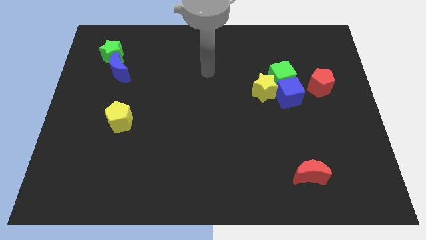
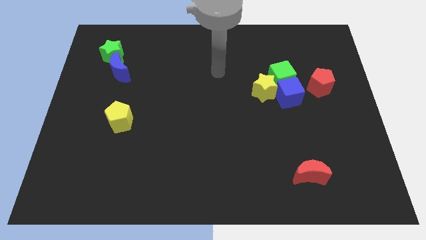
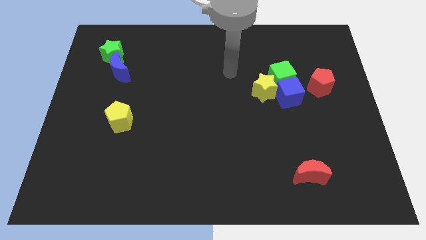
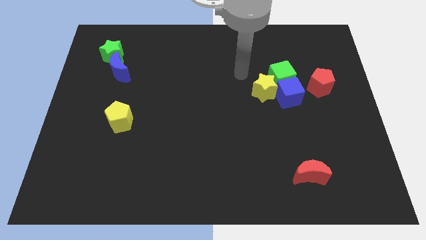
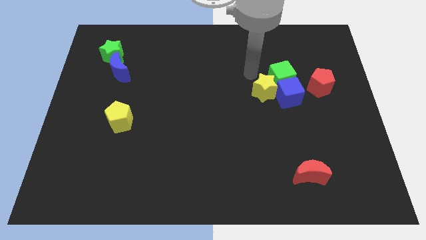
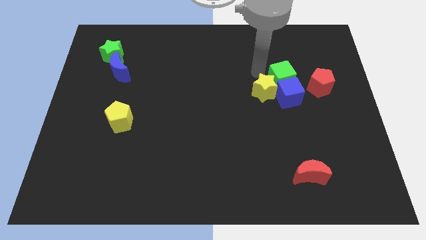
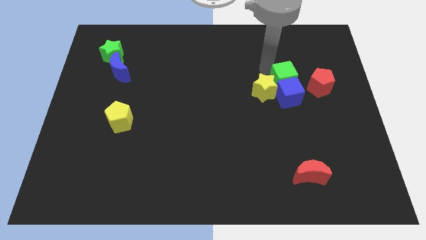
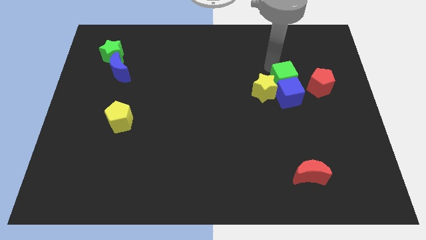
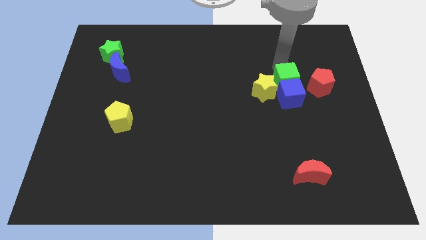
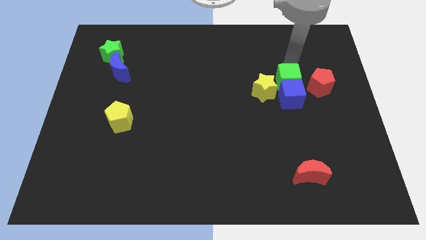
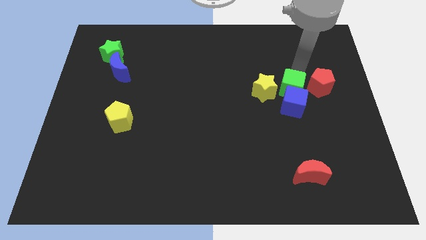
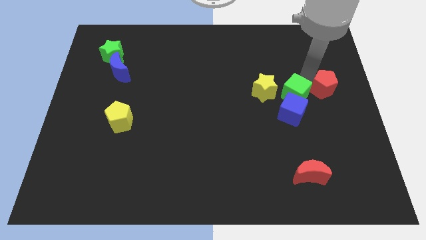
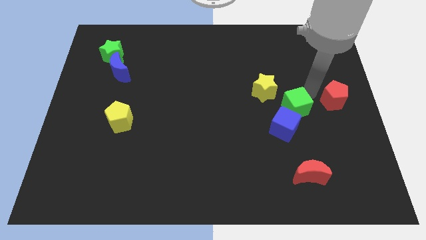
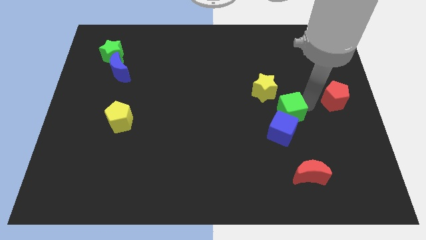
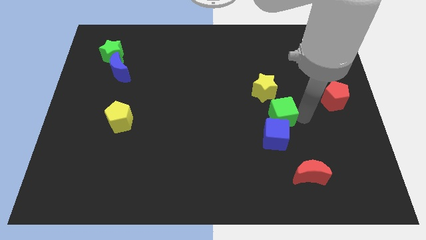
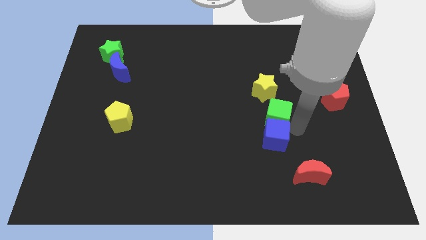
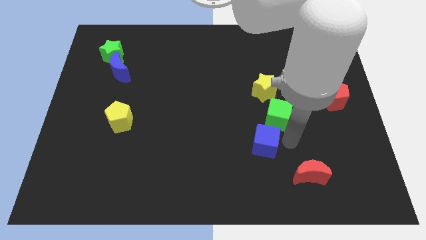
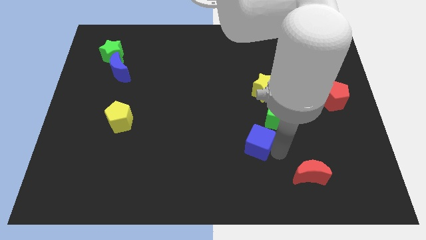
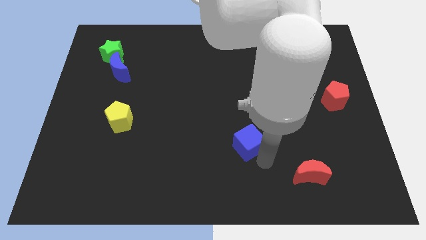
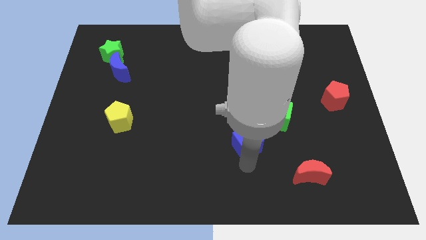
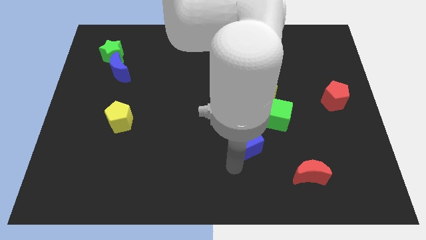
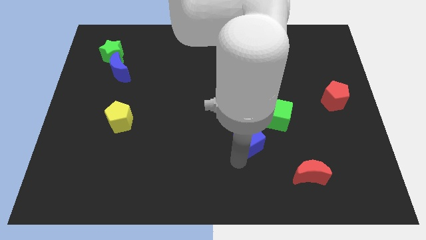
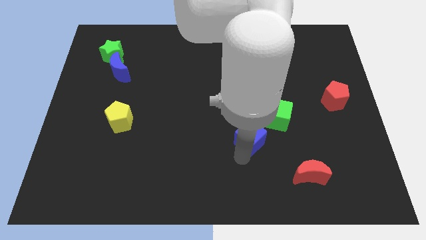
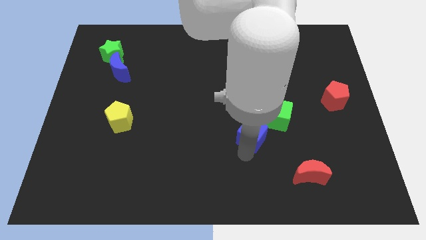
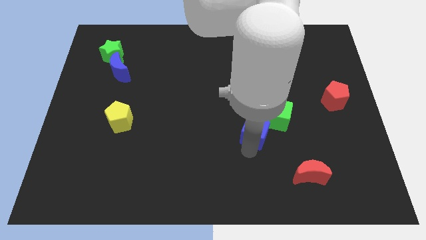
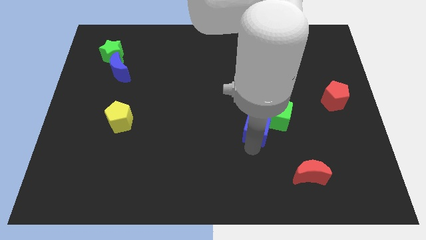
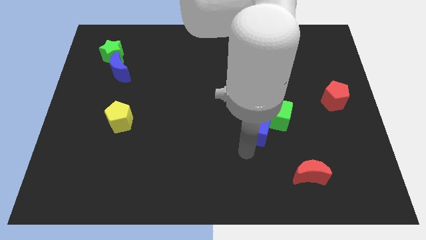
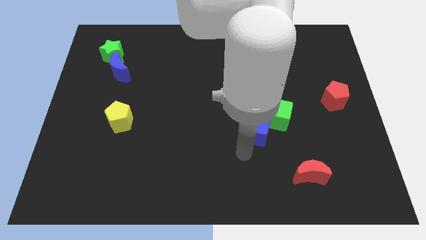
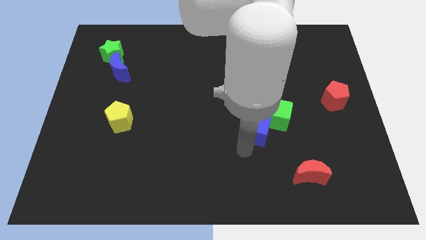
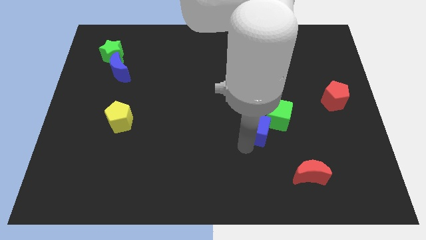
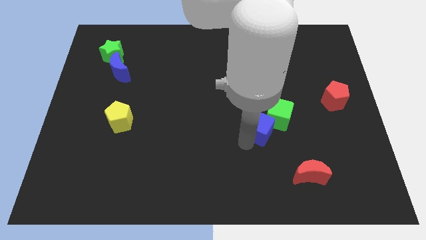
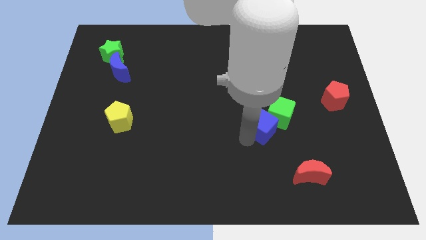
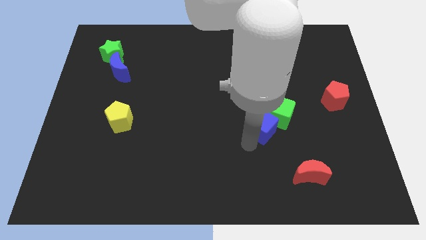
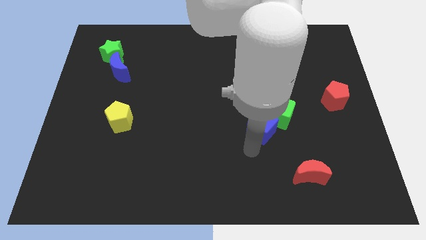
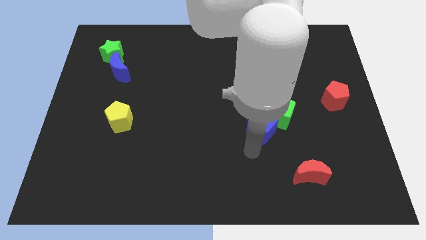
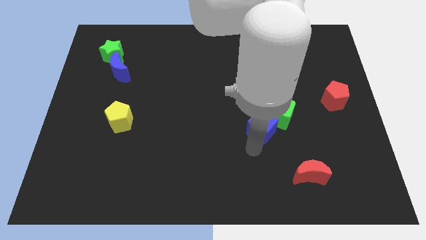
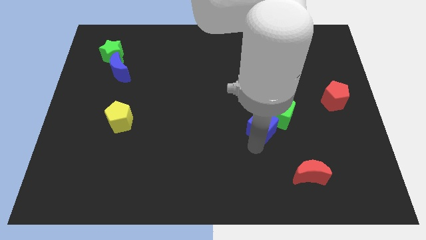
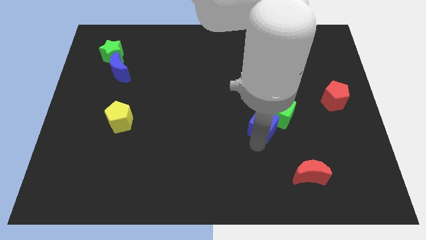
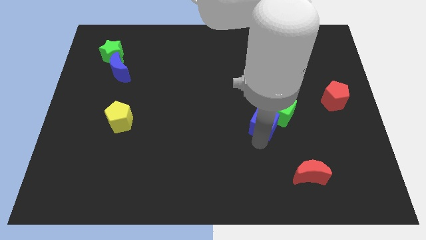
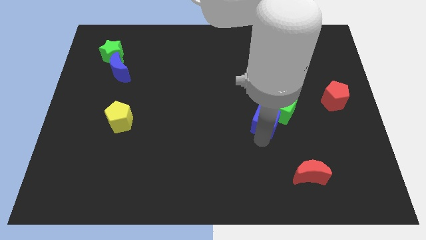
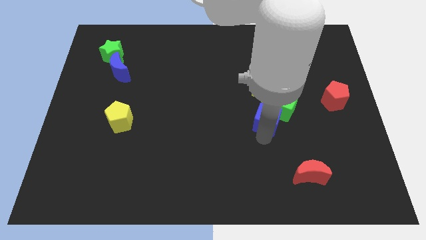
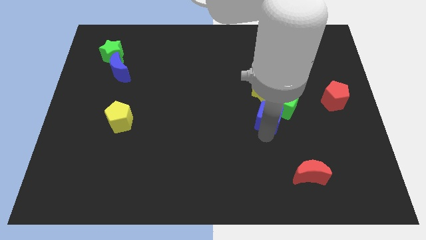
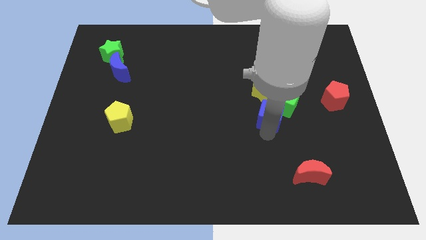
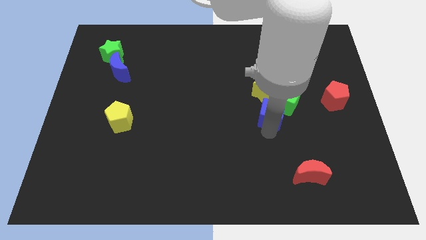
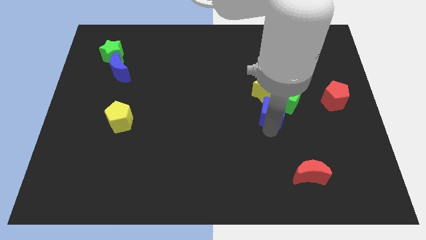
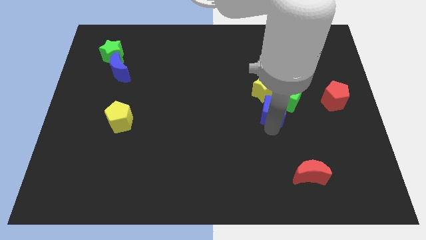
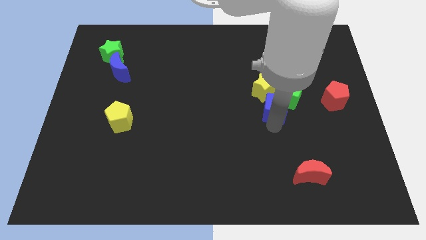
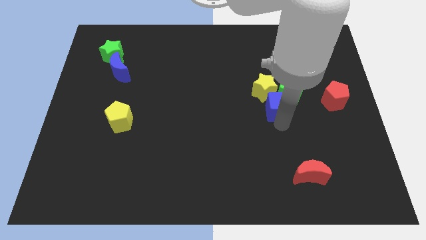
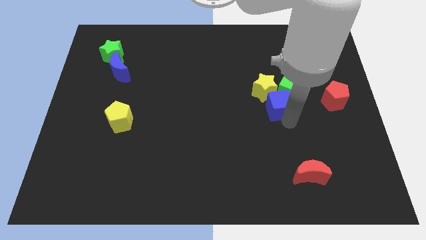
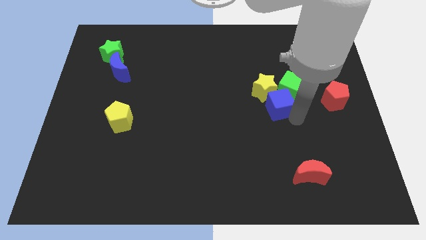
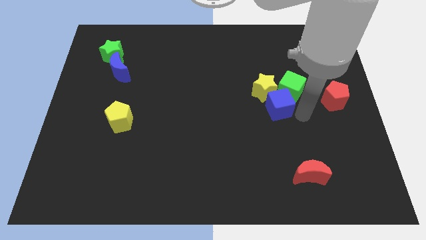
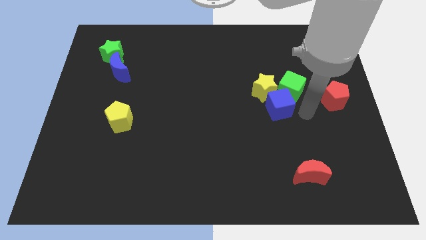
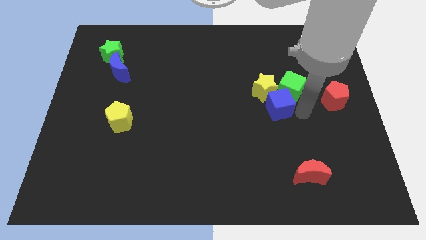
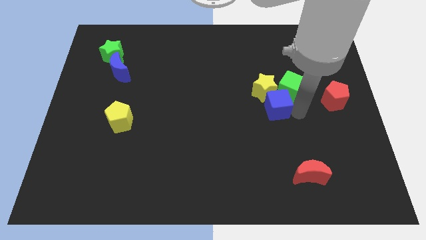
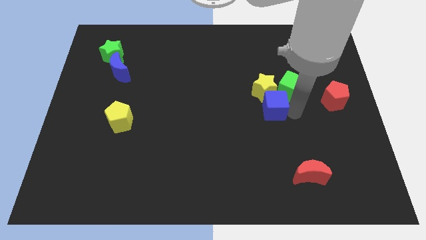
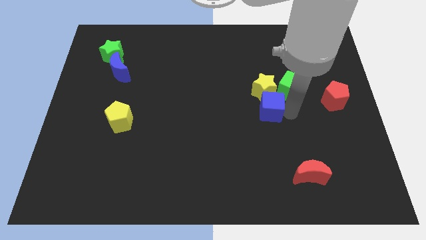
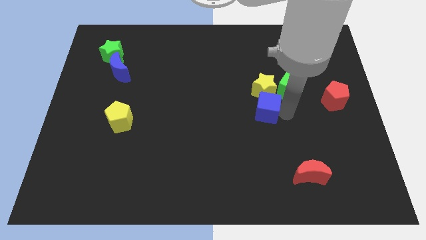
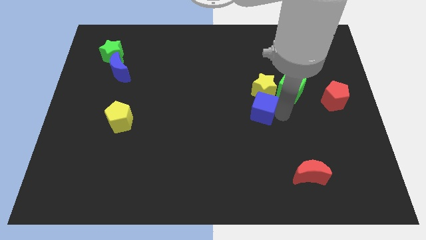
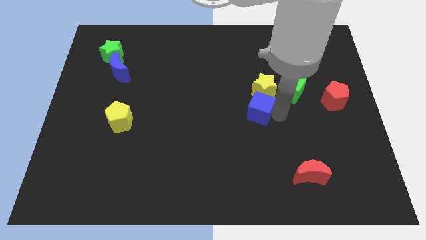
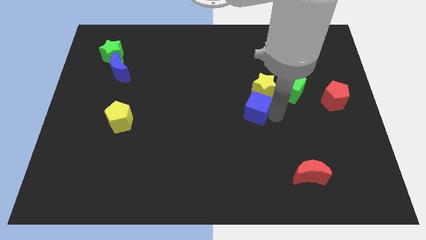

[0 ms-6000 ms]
push the blue cube a little to the left

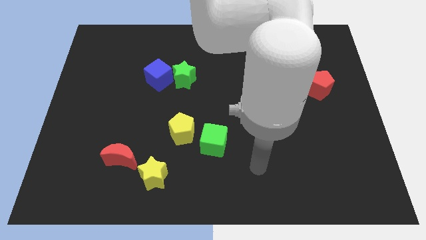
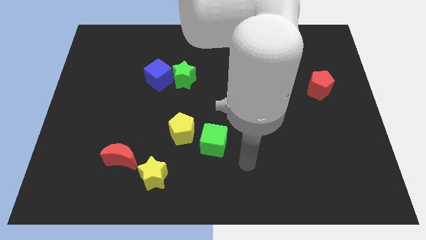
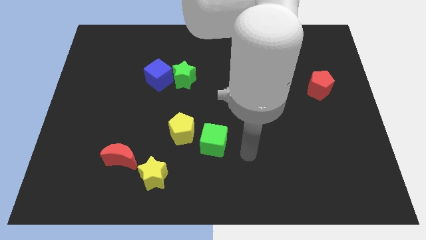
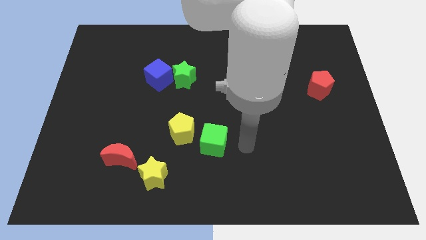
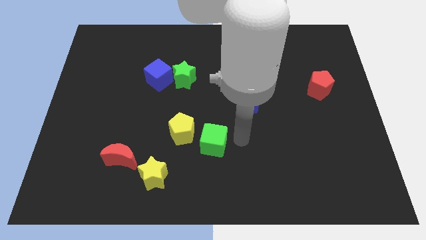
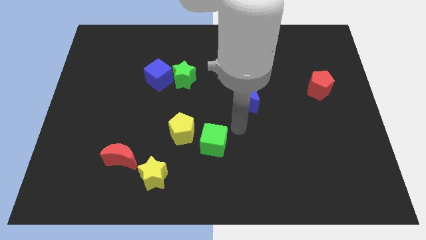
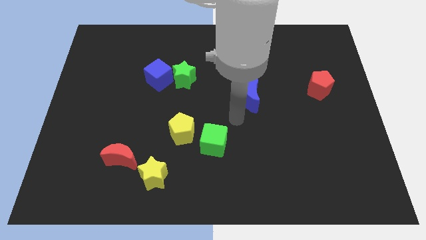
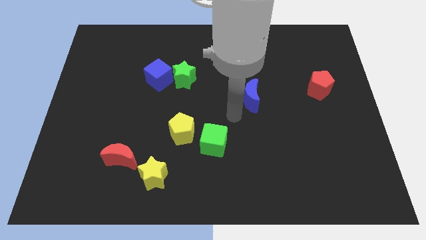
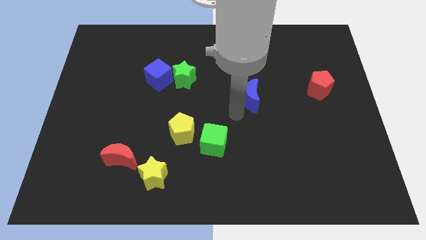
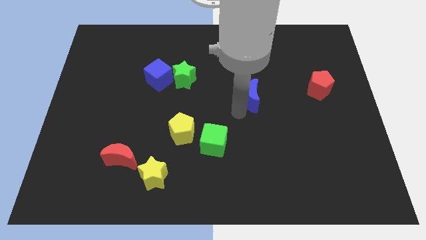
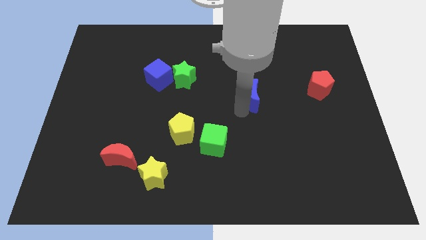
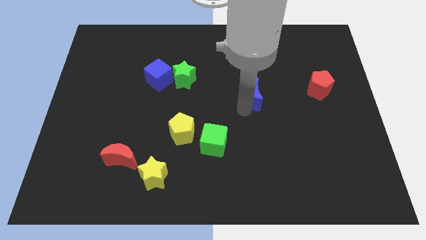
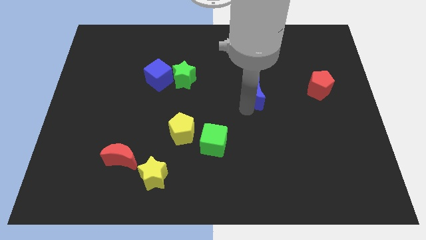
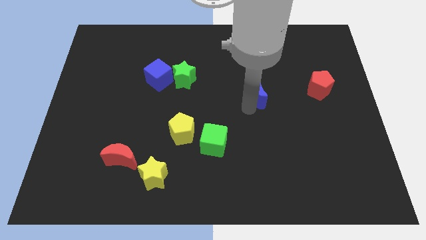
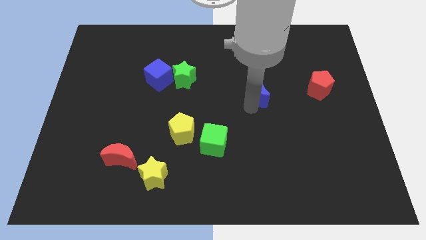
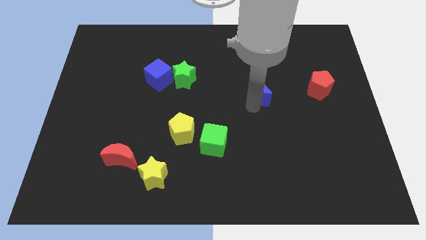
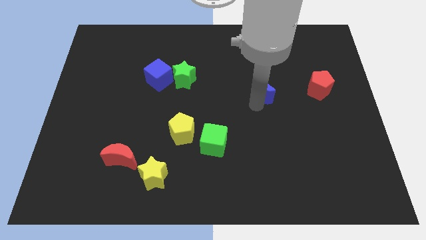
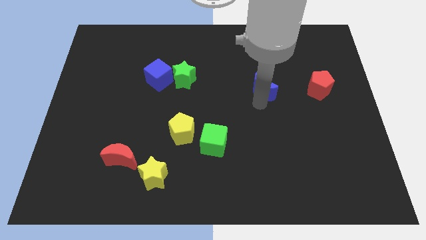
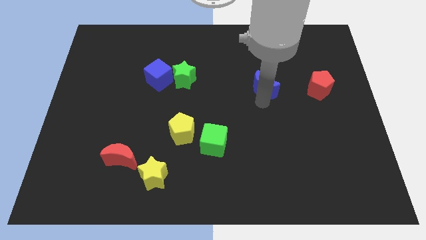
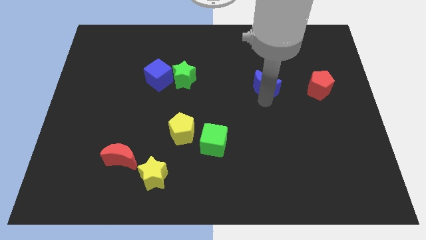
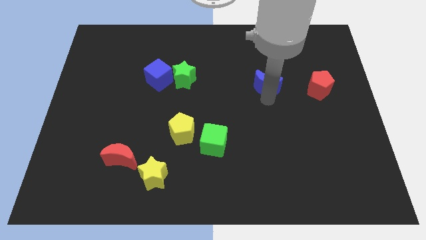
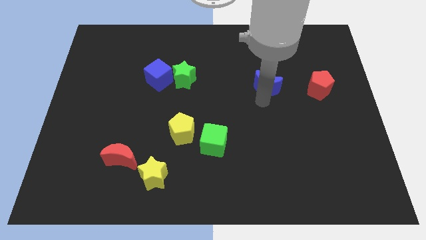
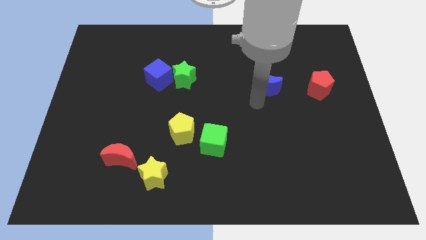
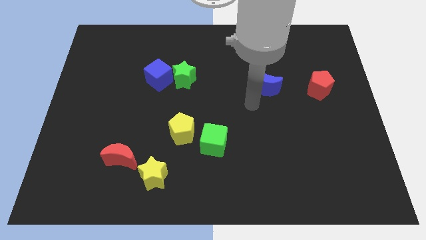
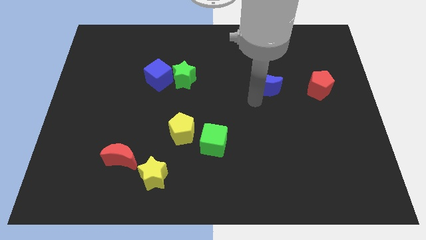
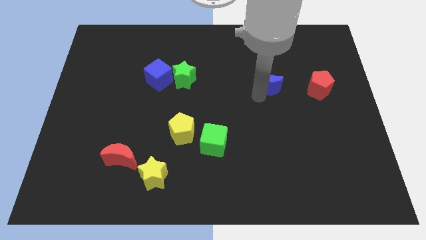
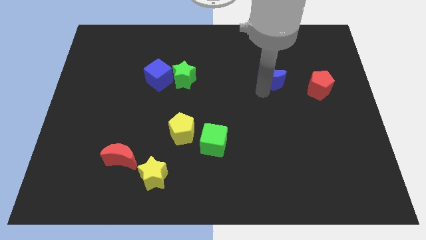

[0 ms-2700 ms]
push the blue moon diagonally up and right a bit
